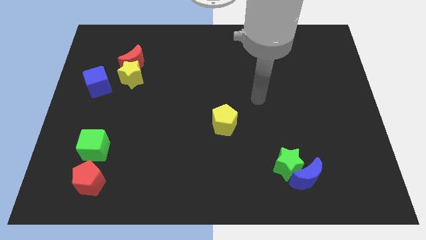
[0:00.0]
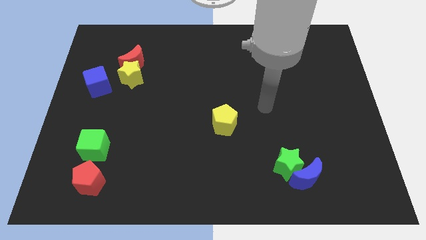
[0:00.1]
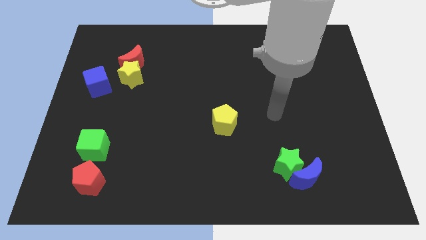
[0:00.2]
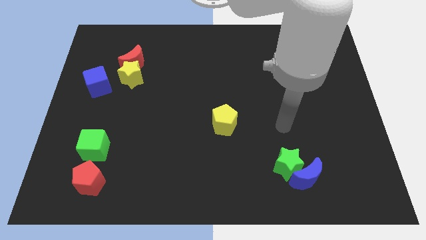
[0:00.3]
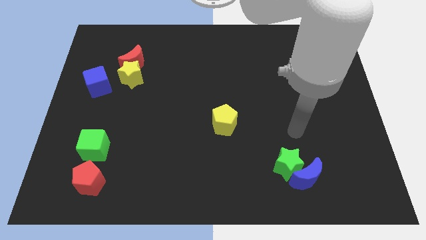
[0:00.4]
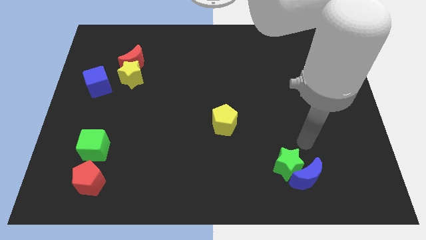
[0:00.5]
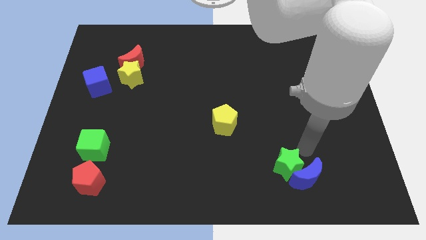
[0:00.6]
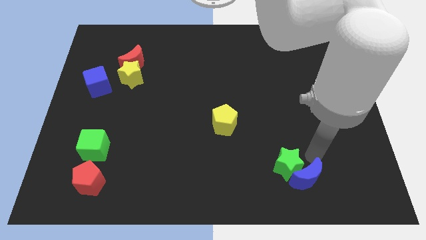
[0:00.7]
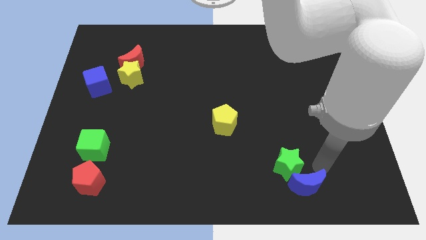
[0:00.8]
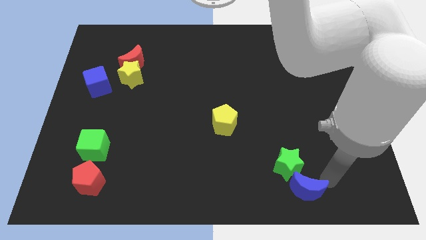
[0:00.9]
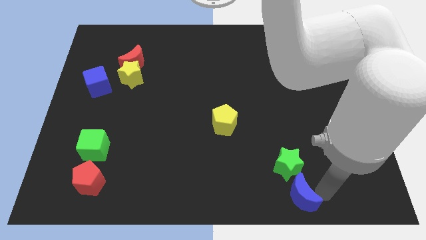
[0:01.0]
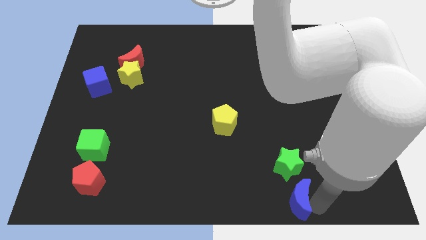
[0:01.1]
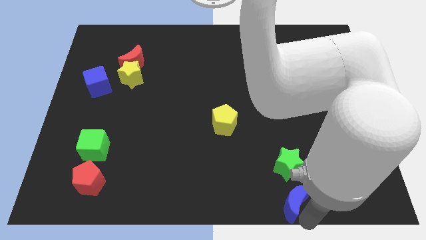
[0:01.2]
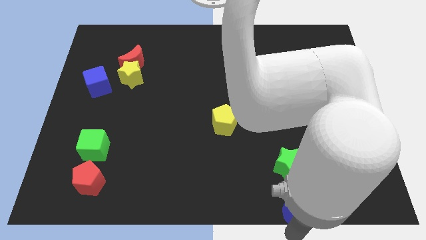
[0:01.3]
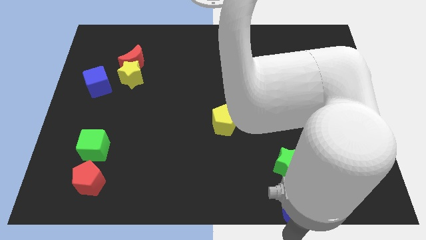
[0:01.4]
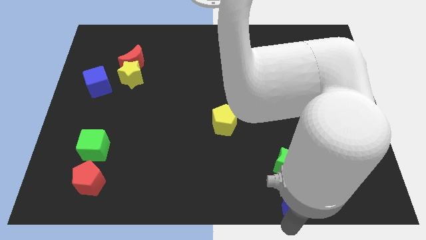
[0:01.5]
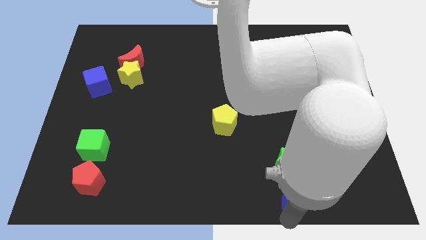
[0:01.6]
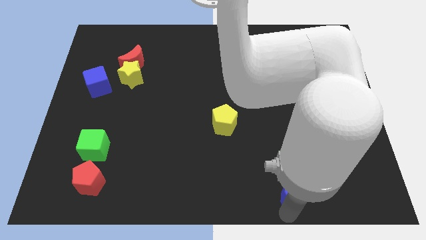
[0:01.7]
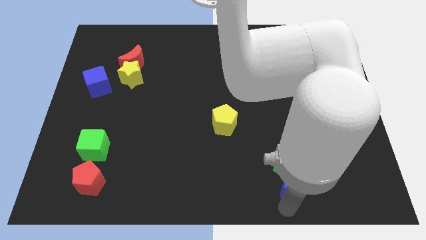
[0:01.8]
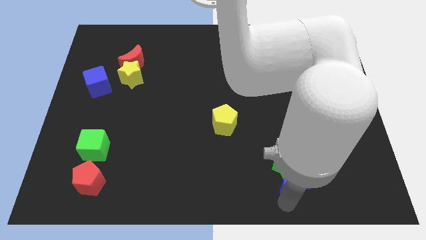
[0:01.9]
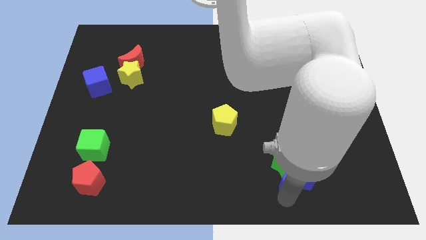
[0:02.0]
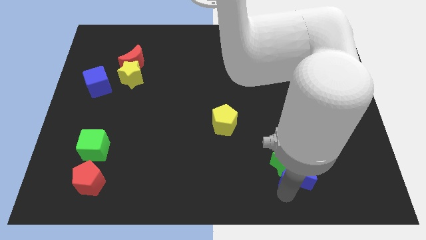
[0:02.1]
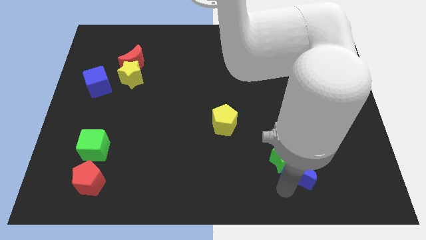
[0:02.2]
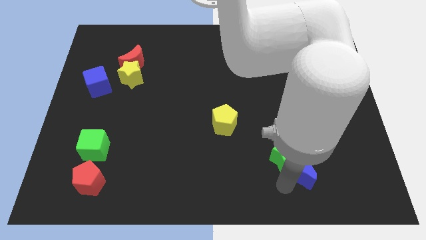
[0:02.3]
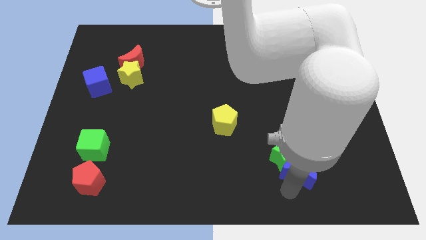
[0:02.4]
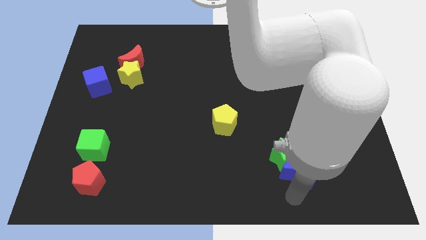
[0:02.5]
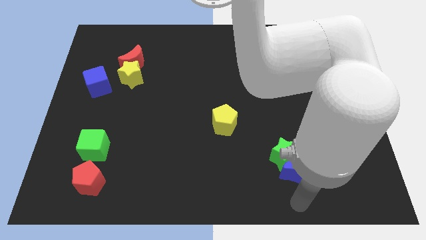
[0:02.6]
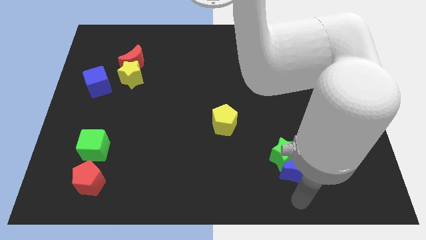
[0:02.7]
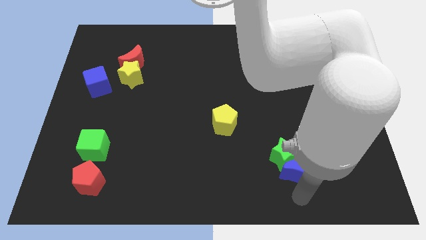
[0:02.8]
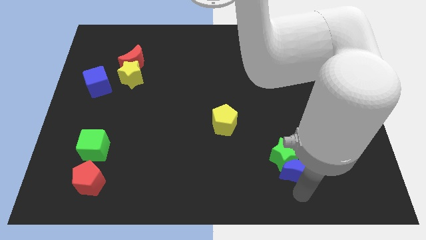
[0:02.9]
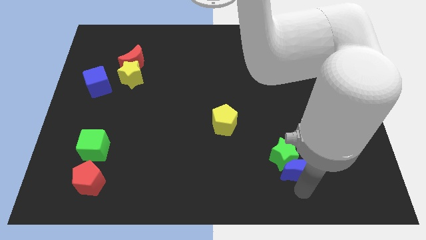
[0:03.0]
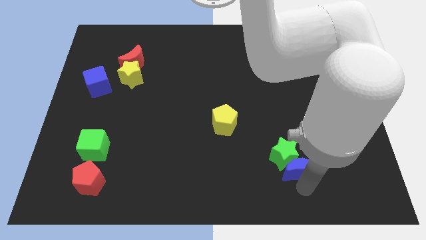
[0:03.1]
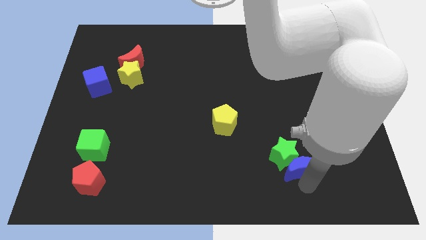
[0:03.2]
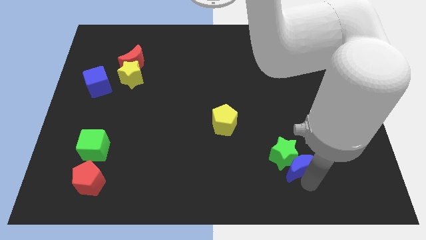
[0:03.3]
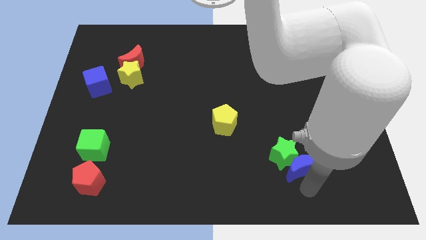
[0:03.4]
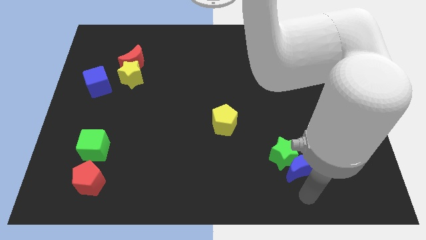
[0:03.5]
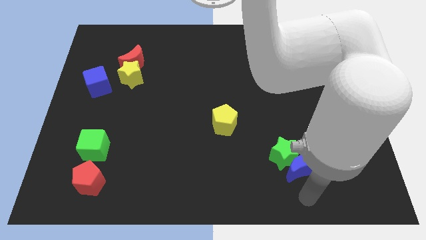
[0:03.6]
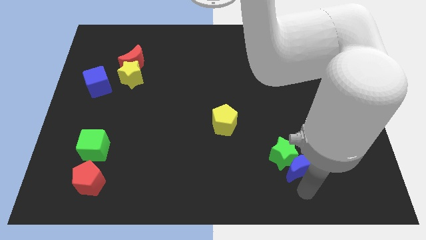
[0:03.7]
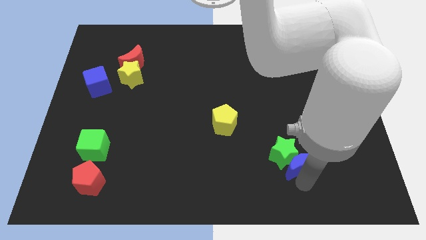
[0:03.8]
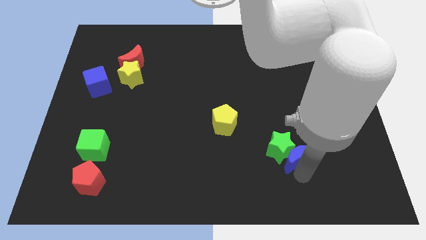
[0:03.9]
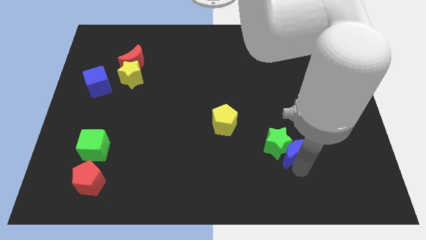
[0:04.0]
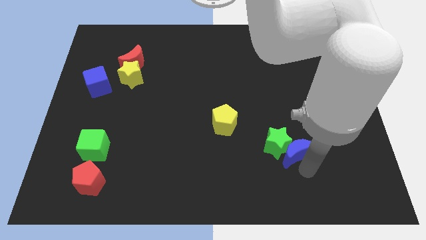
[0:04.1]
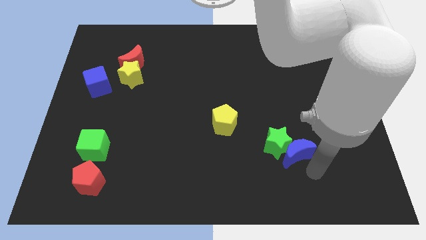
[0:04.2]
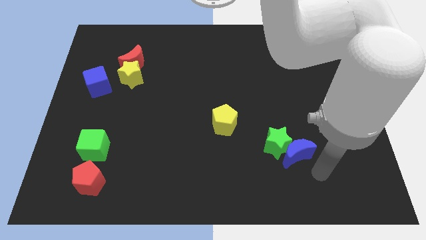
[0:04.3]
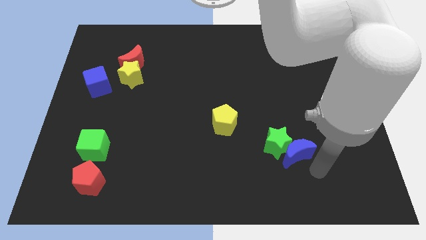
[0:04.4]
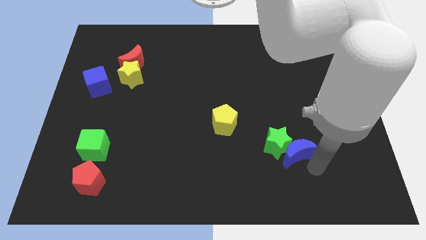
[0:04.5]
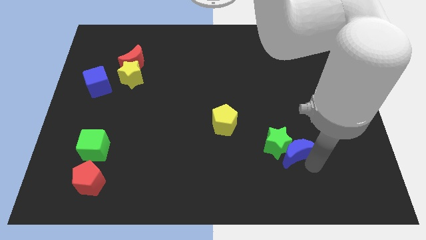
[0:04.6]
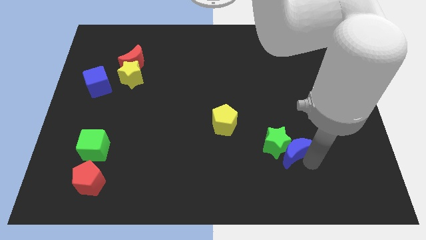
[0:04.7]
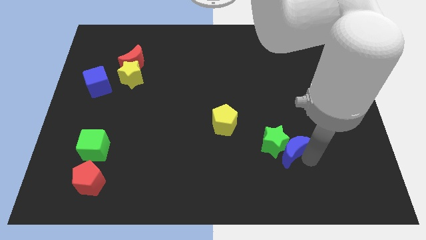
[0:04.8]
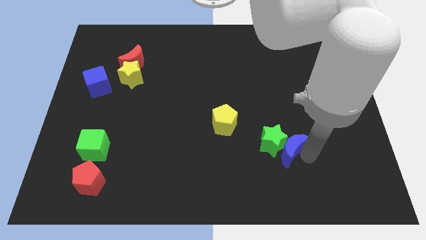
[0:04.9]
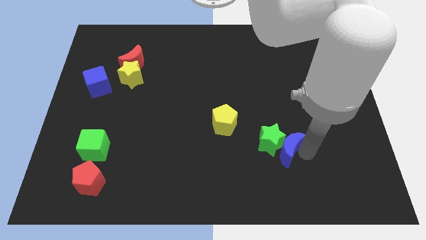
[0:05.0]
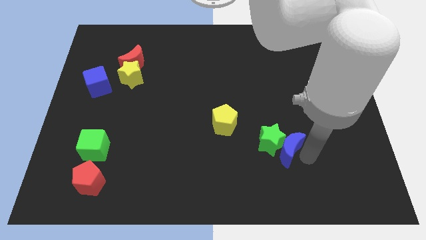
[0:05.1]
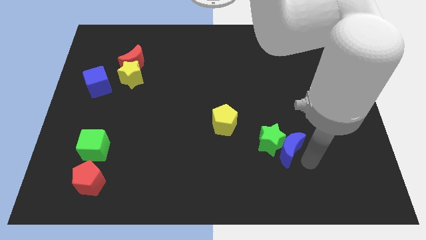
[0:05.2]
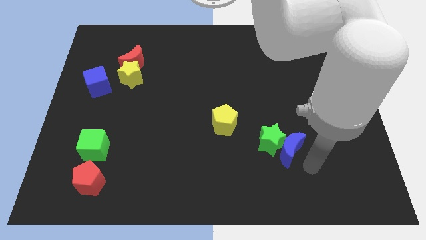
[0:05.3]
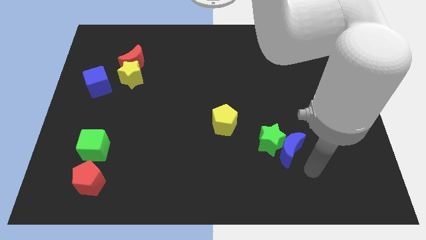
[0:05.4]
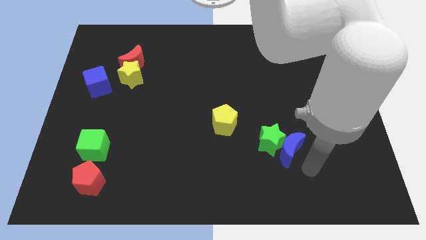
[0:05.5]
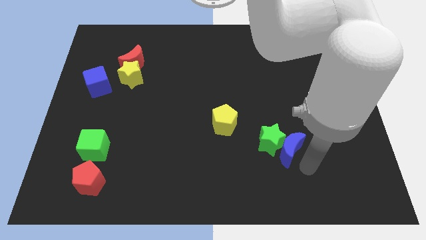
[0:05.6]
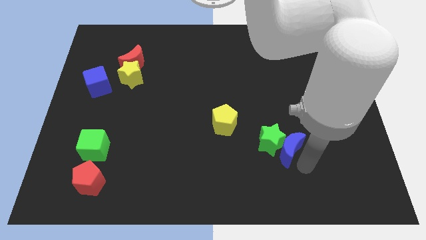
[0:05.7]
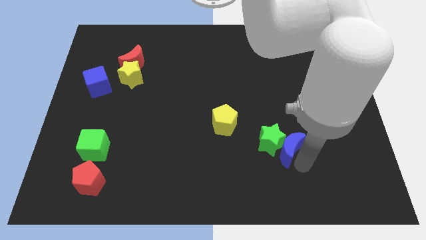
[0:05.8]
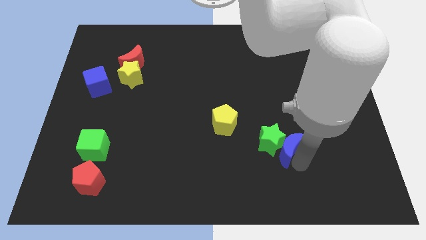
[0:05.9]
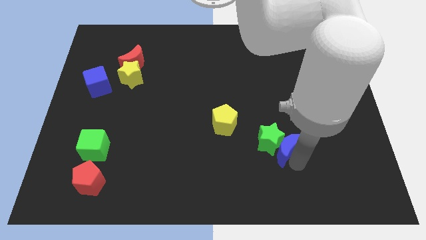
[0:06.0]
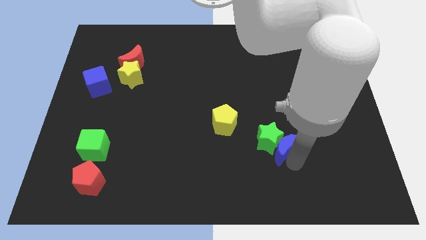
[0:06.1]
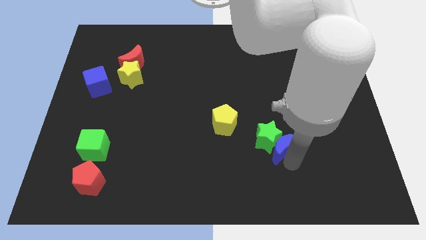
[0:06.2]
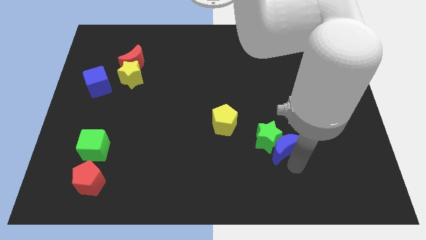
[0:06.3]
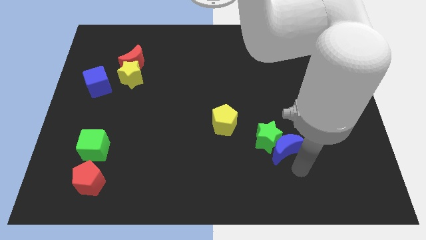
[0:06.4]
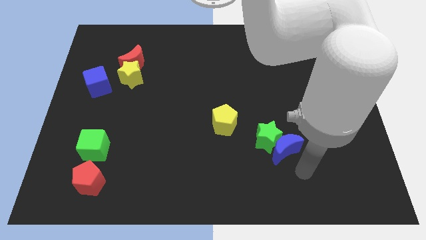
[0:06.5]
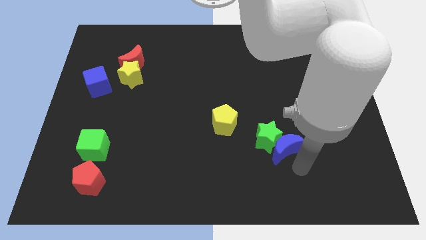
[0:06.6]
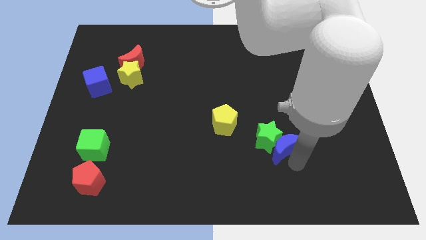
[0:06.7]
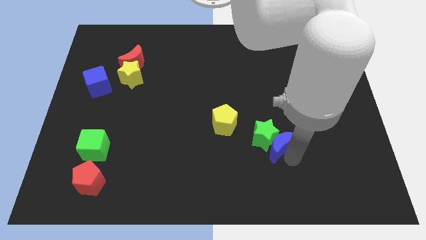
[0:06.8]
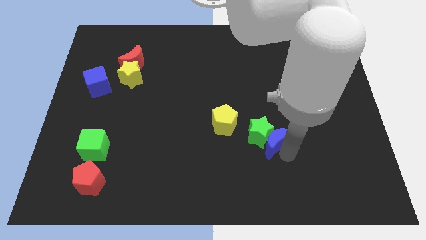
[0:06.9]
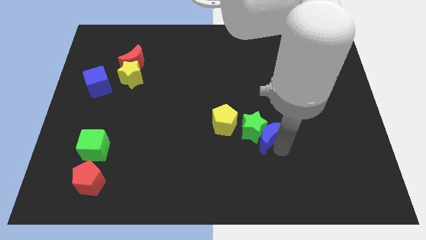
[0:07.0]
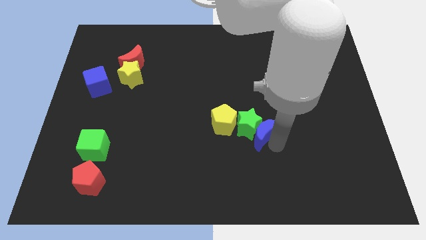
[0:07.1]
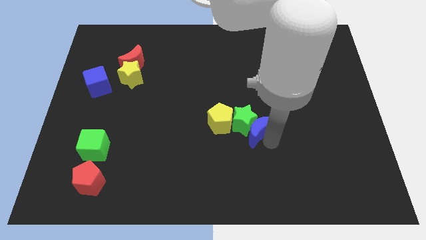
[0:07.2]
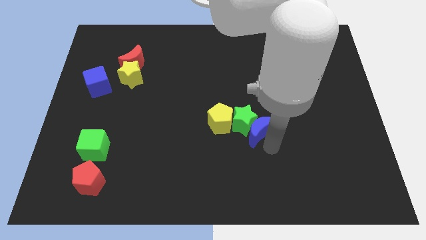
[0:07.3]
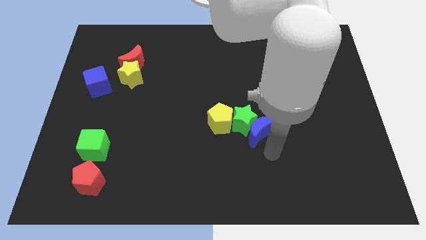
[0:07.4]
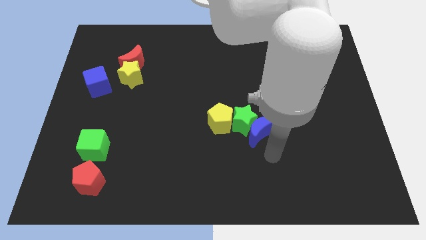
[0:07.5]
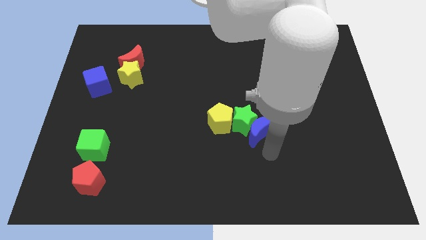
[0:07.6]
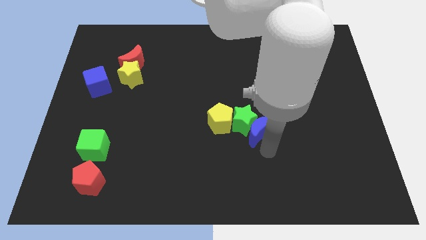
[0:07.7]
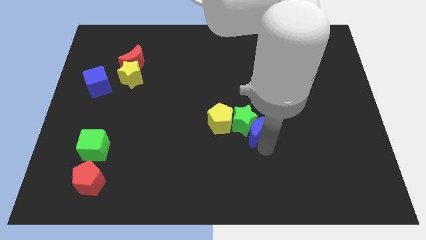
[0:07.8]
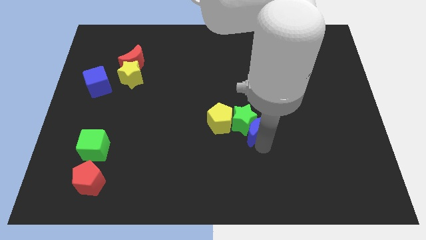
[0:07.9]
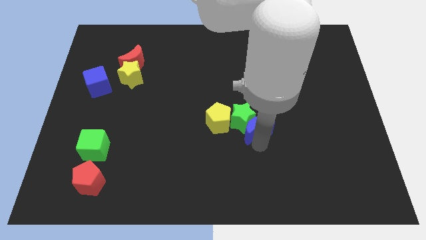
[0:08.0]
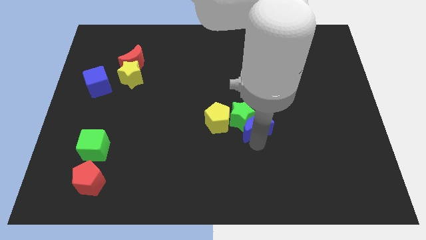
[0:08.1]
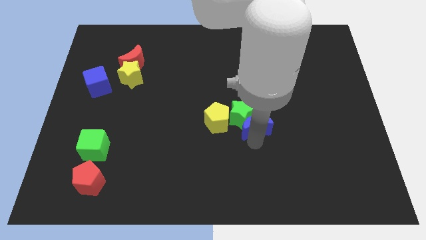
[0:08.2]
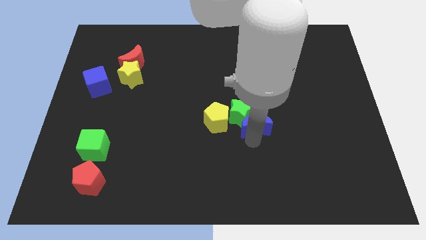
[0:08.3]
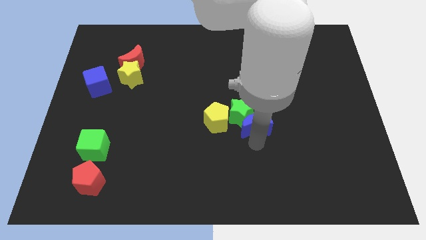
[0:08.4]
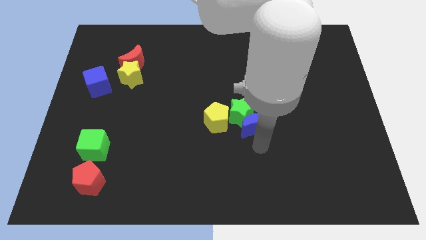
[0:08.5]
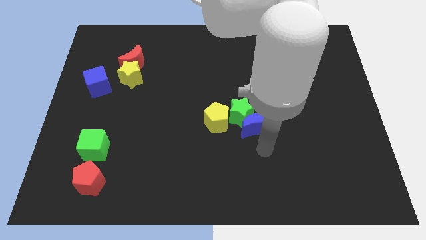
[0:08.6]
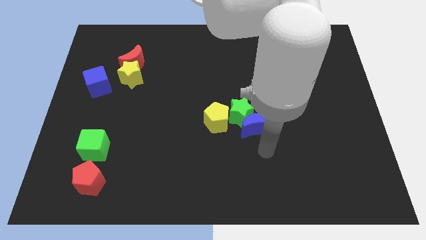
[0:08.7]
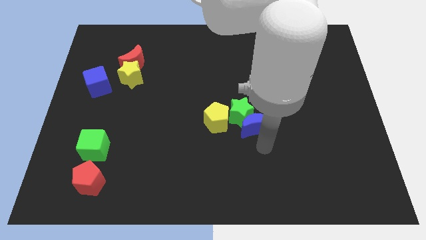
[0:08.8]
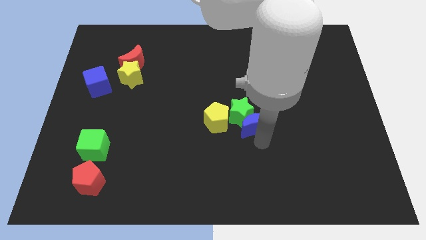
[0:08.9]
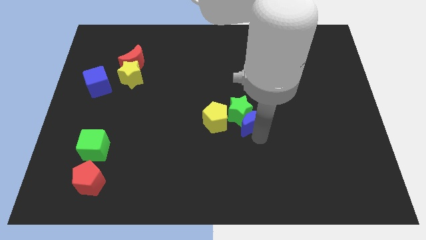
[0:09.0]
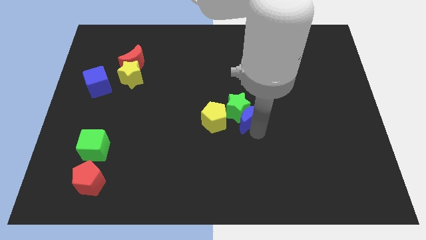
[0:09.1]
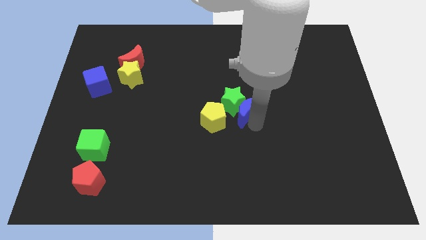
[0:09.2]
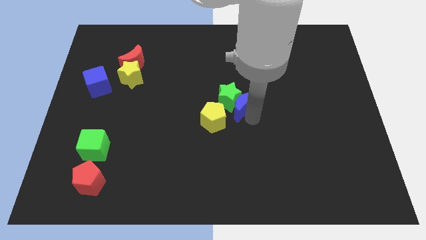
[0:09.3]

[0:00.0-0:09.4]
slide the blue moon upwards and to the left
